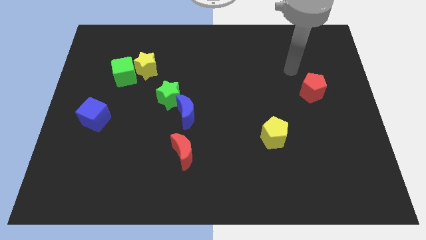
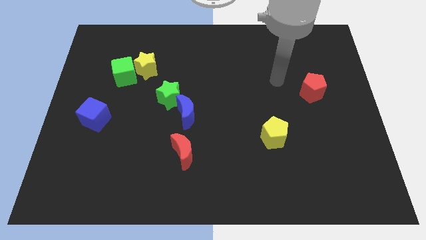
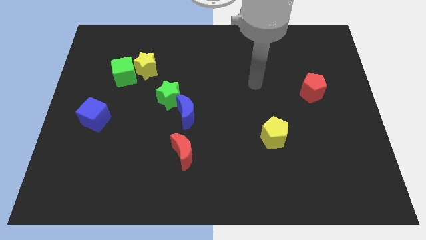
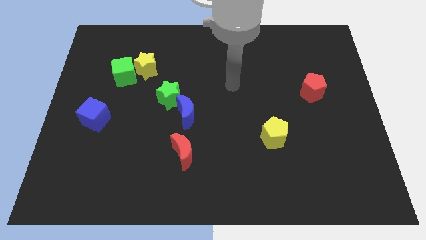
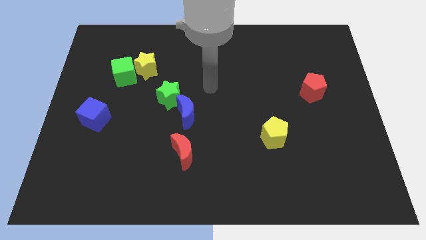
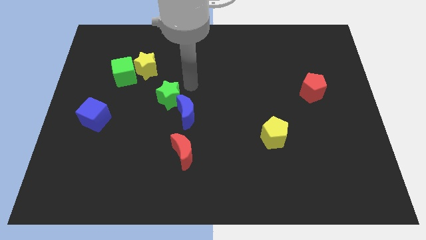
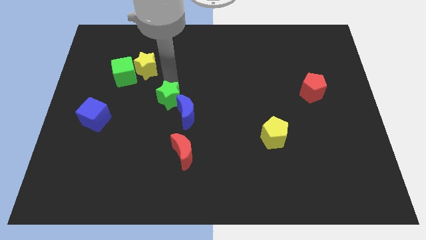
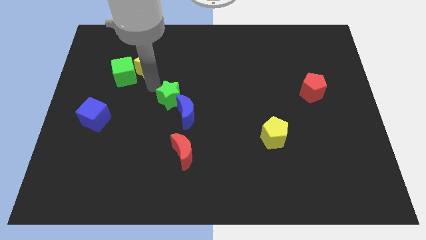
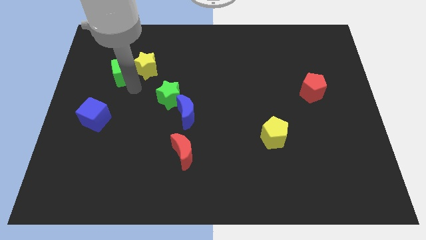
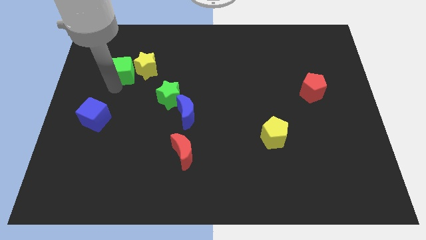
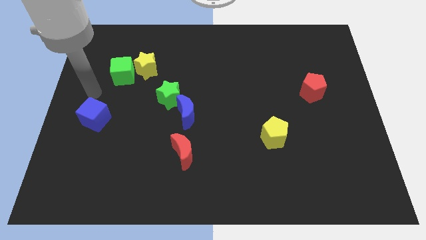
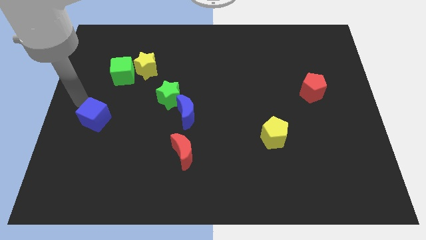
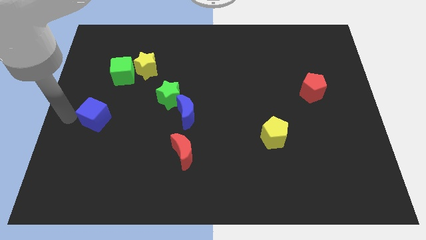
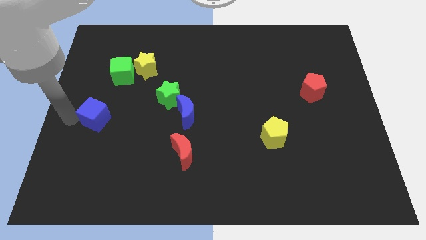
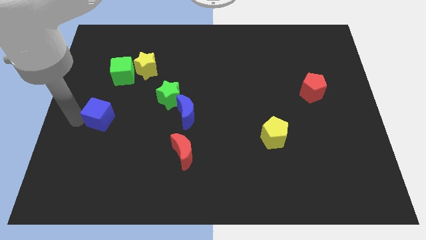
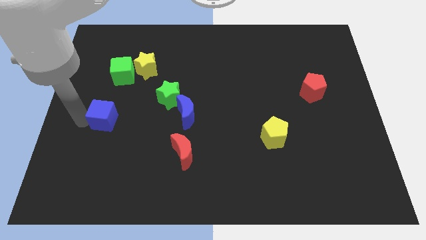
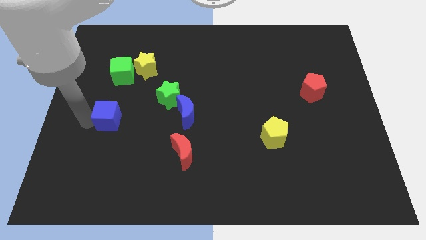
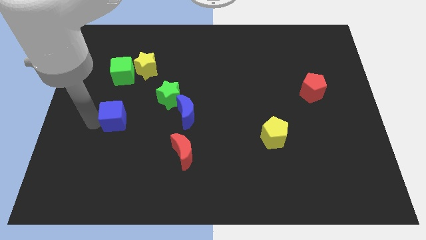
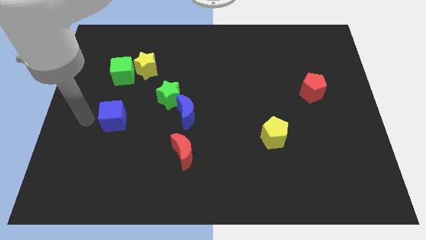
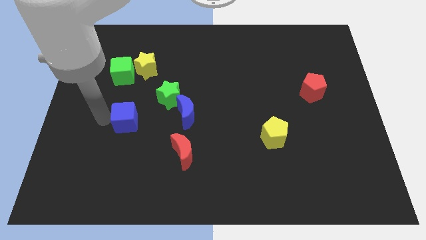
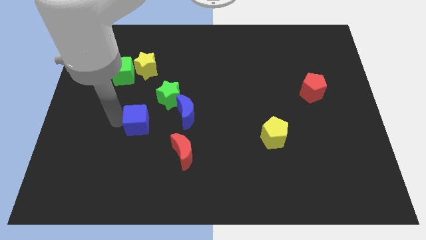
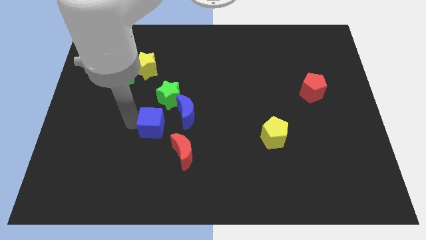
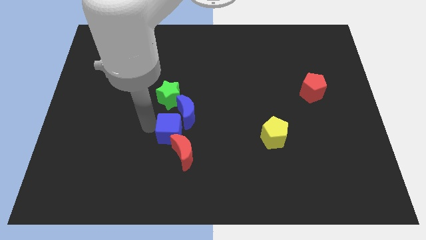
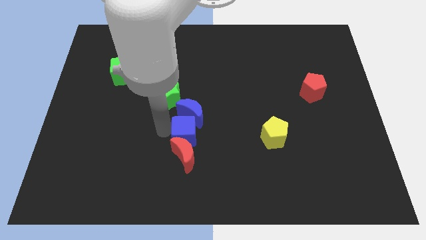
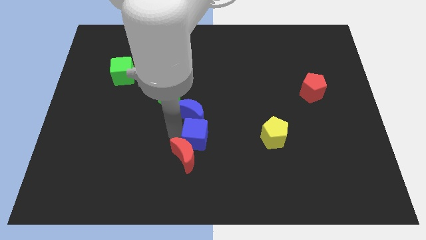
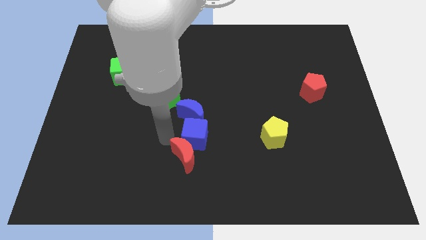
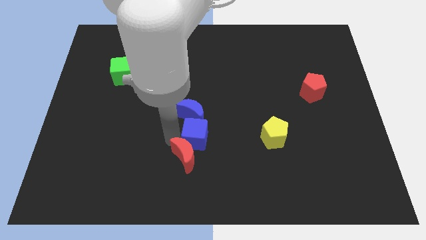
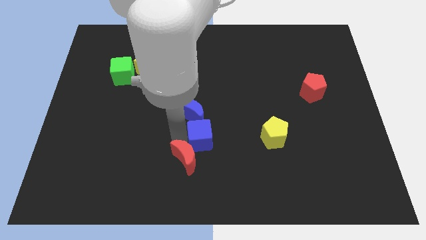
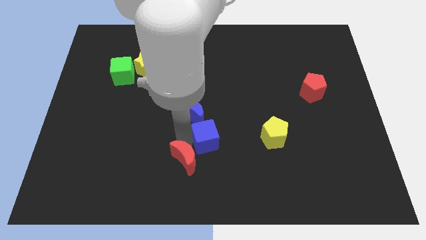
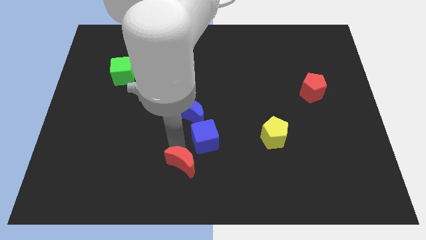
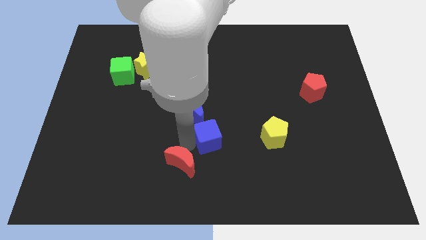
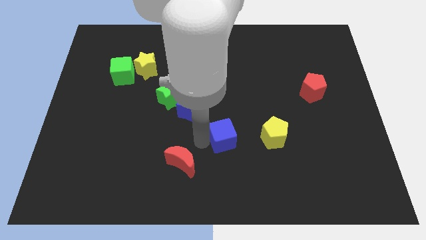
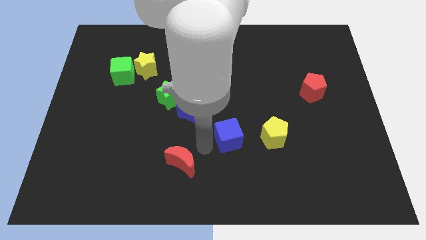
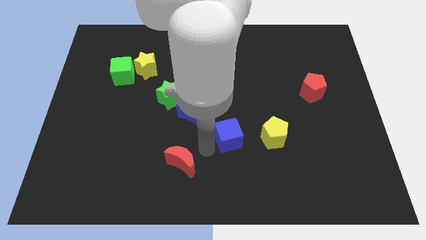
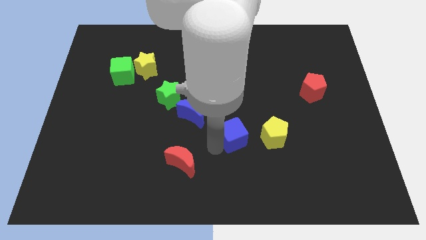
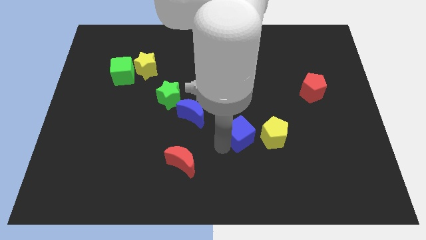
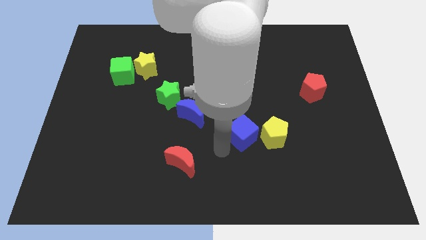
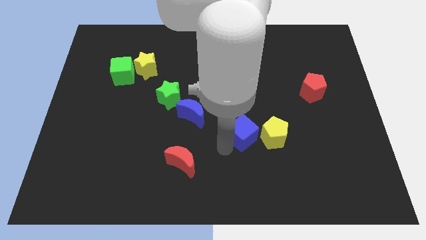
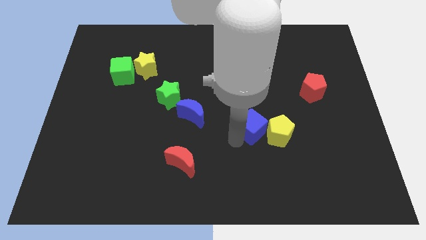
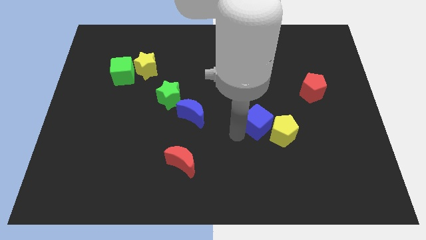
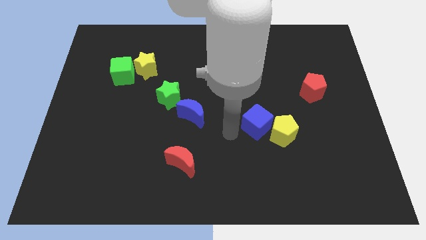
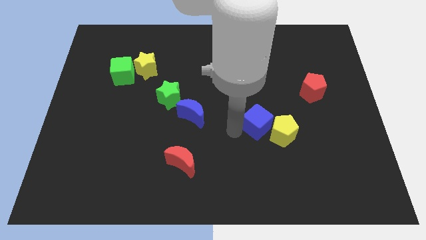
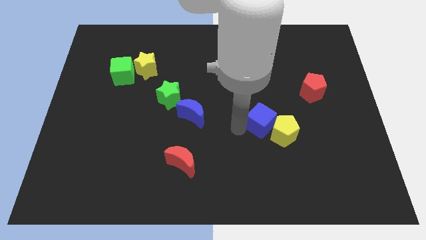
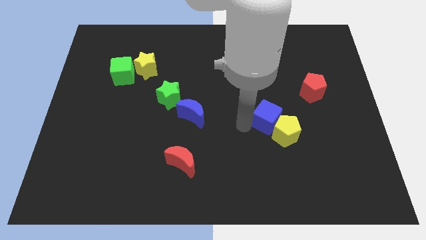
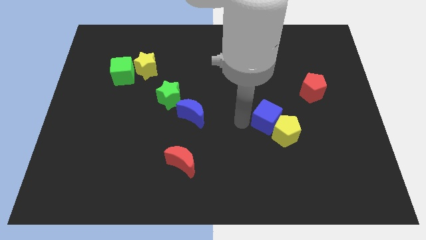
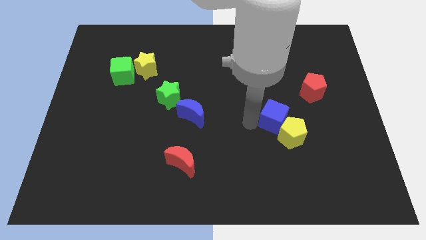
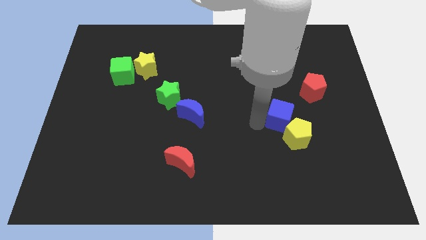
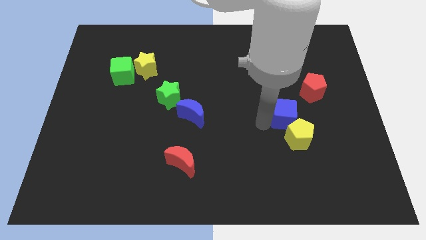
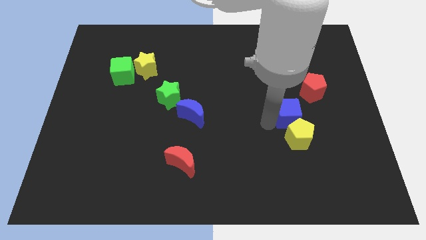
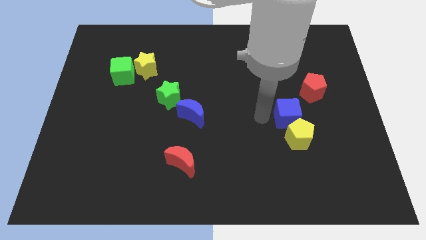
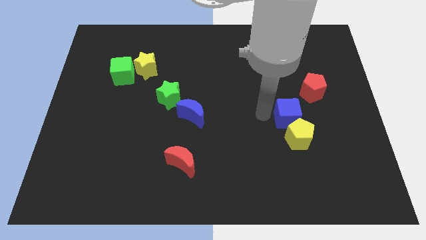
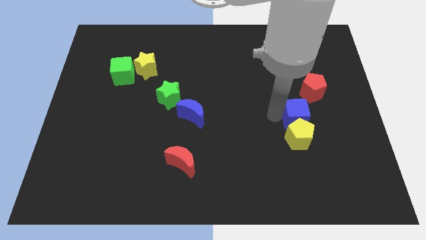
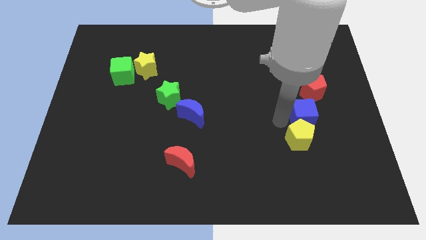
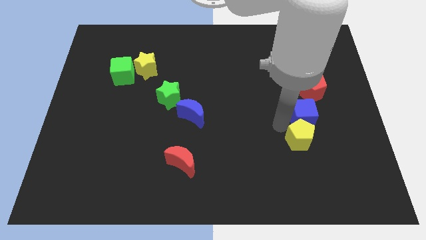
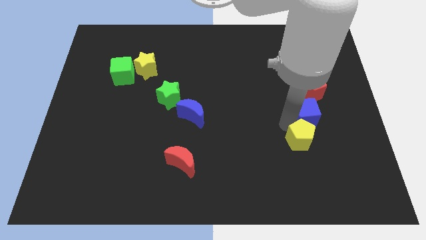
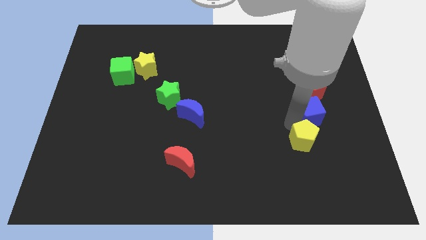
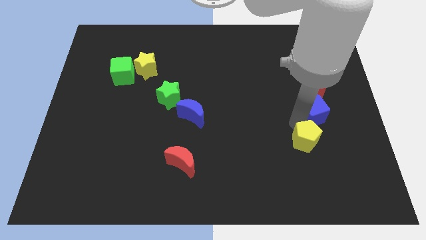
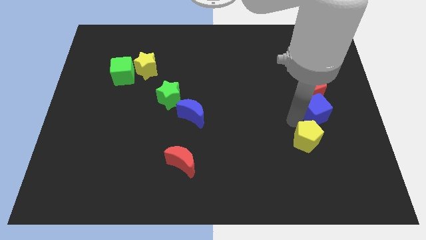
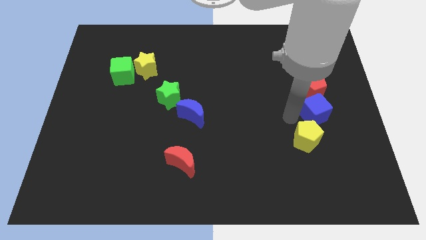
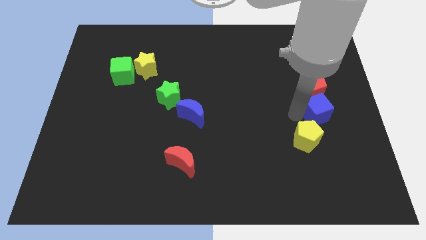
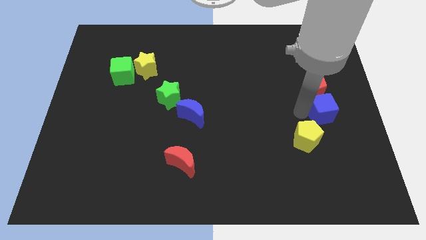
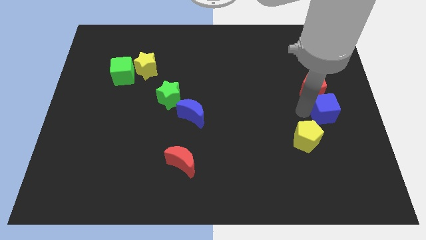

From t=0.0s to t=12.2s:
move the blue cube to the right side

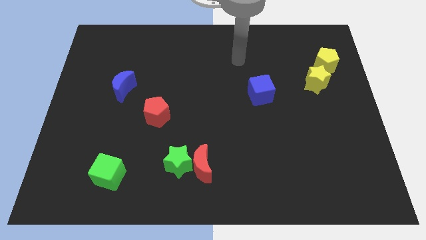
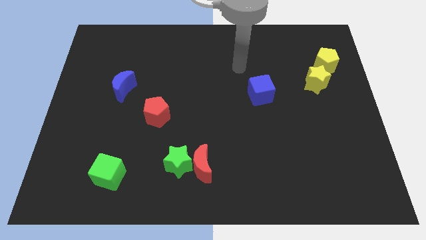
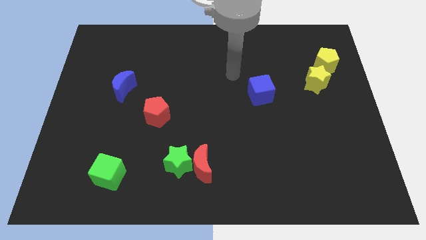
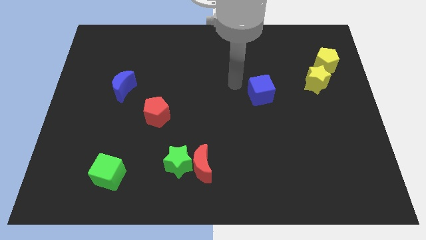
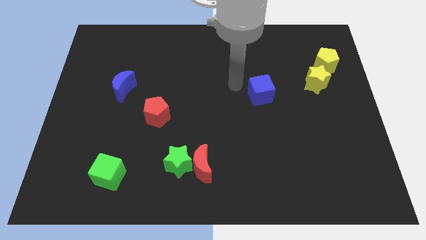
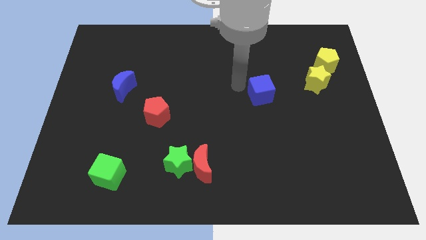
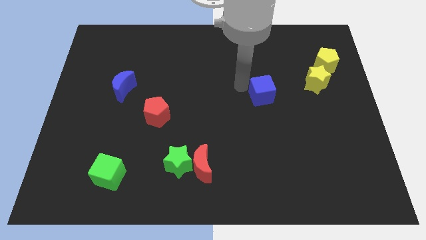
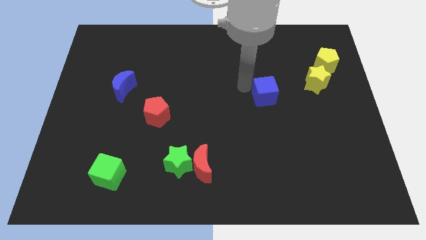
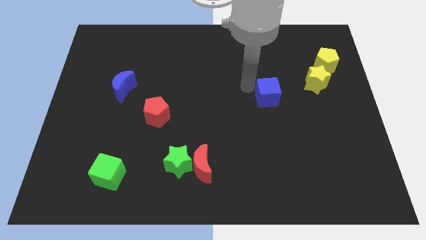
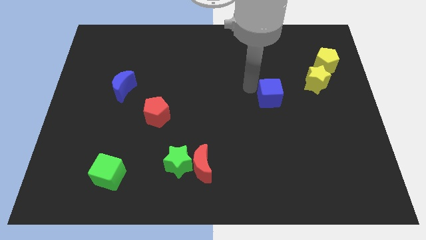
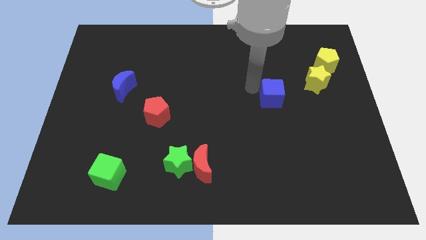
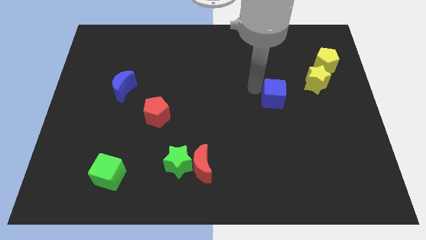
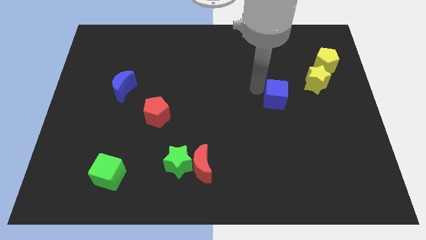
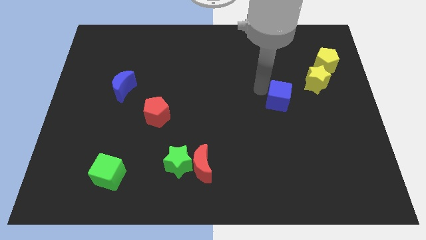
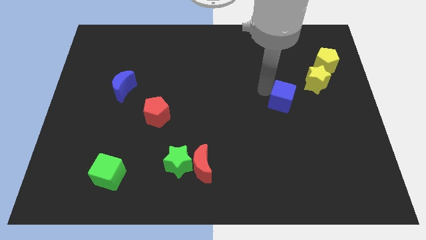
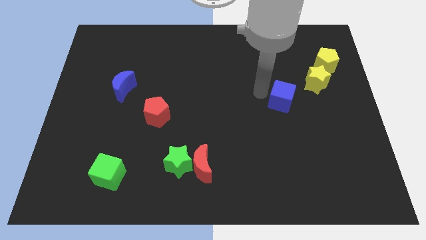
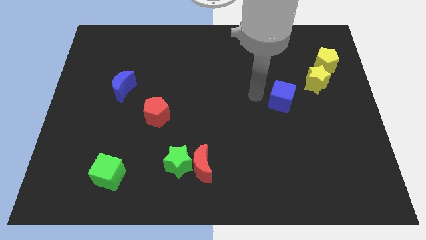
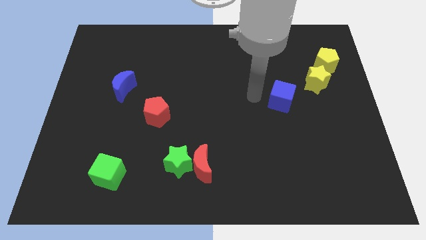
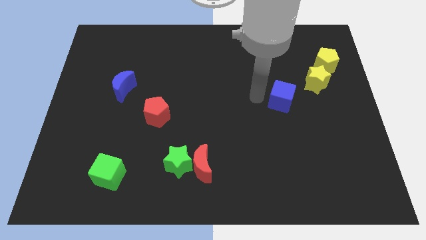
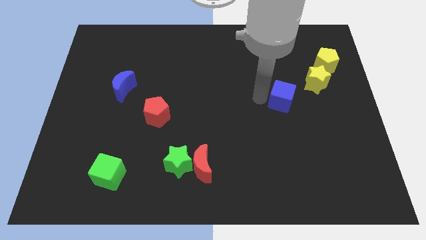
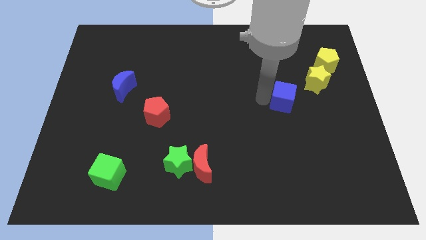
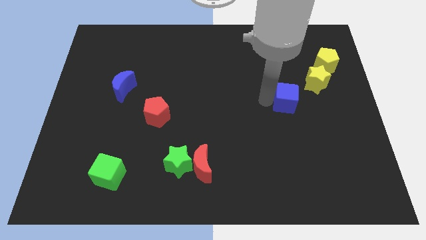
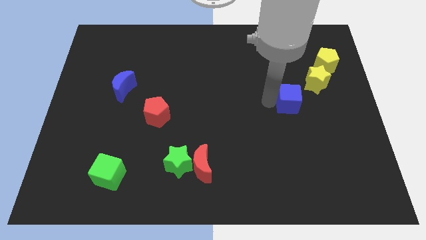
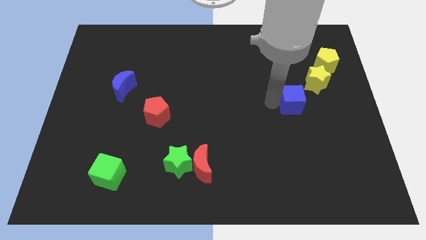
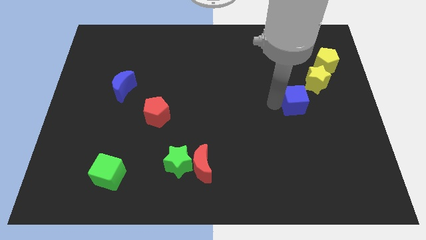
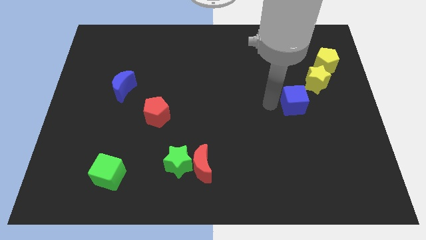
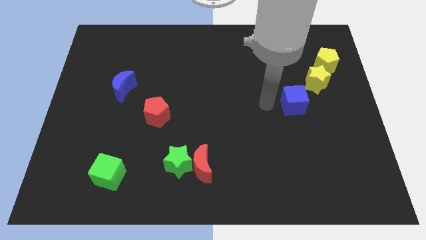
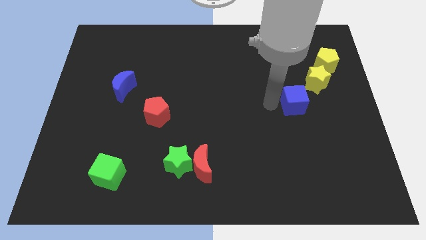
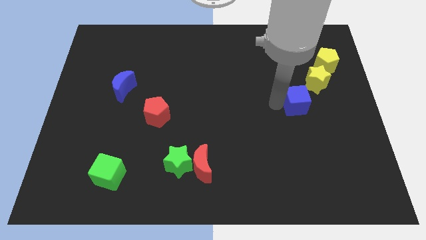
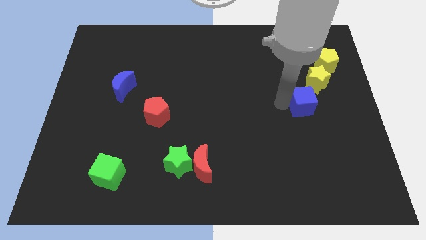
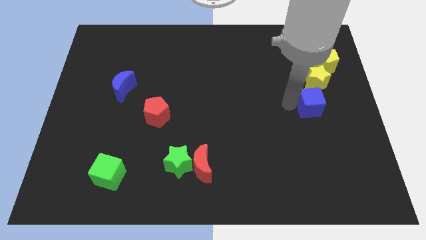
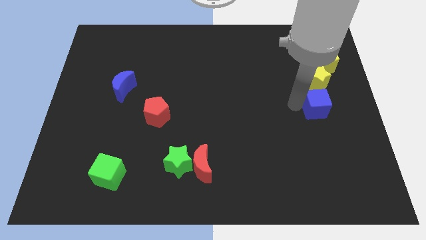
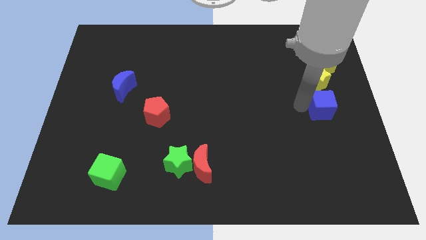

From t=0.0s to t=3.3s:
push the blue cube to the right side of the board
